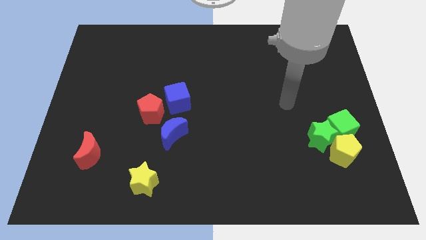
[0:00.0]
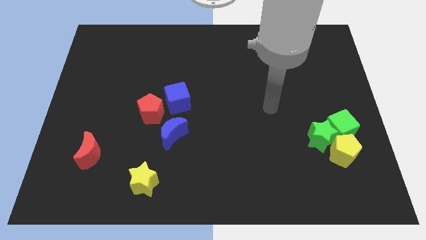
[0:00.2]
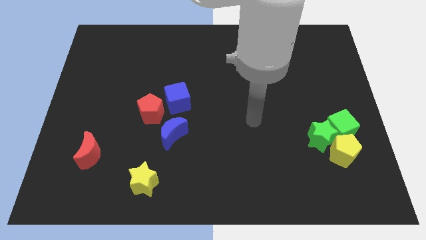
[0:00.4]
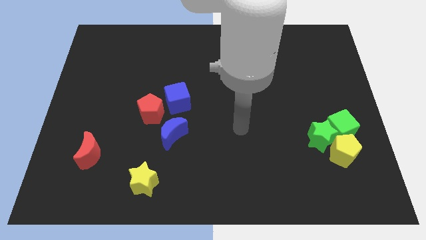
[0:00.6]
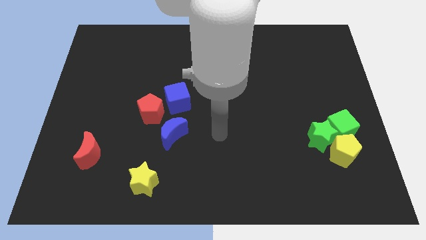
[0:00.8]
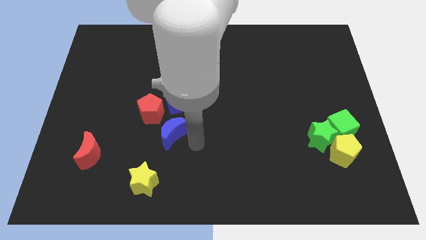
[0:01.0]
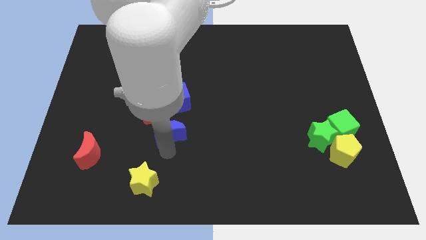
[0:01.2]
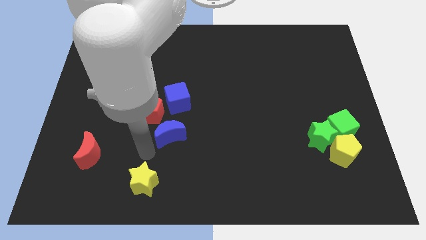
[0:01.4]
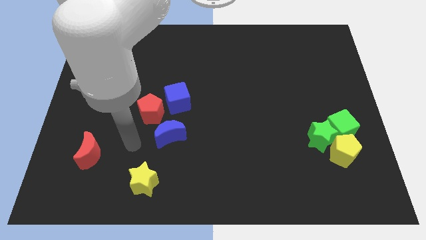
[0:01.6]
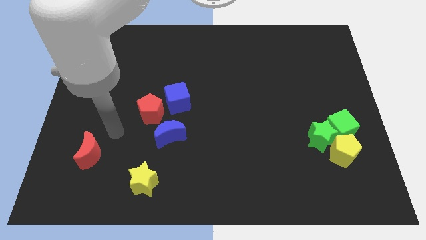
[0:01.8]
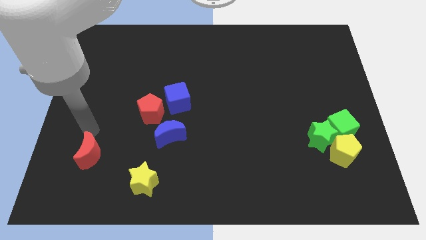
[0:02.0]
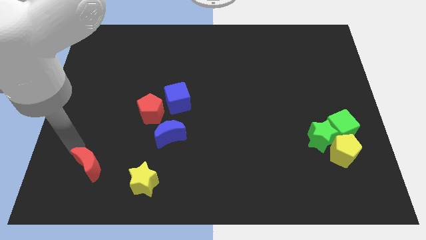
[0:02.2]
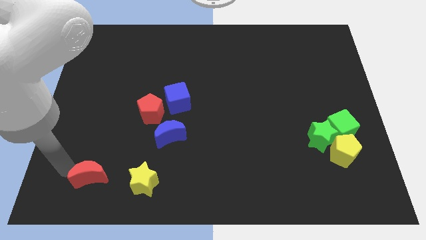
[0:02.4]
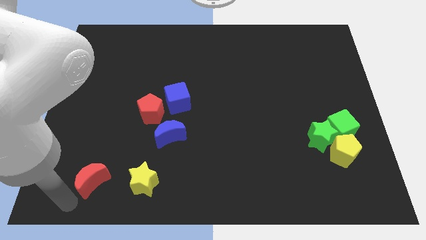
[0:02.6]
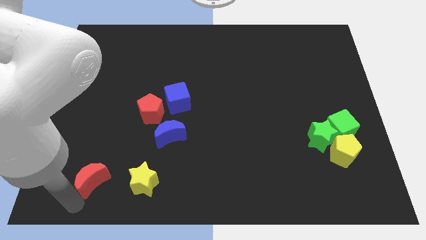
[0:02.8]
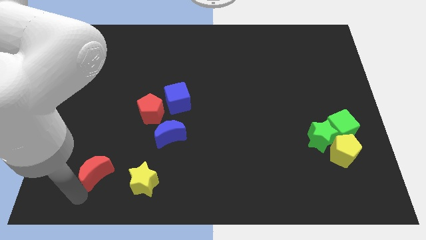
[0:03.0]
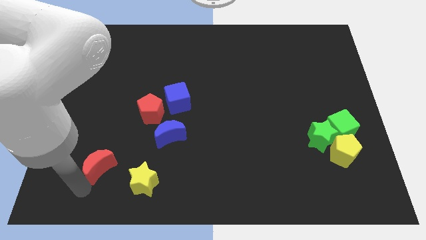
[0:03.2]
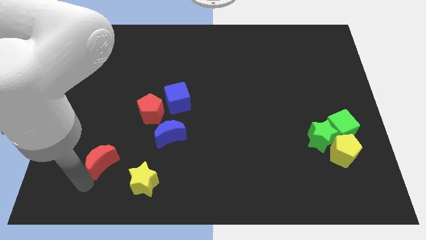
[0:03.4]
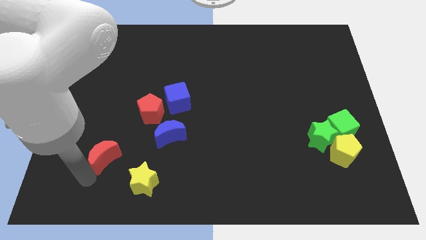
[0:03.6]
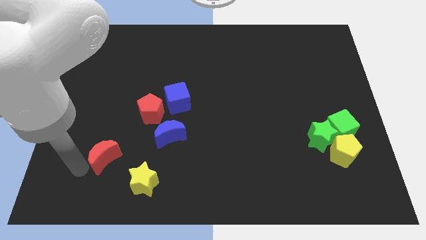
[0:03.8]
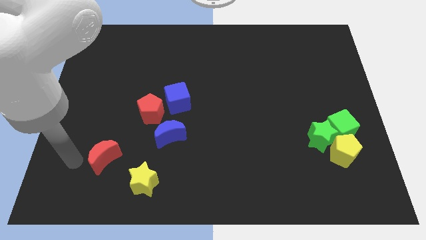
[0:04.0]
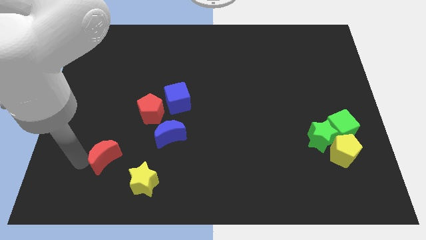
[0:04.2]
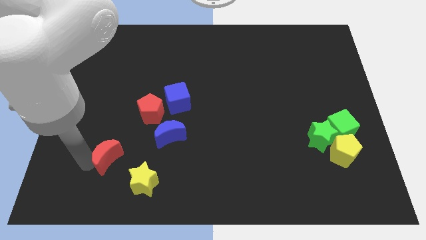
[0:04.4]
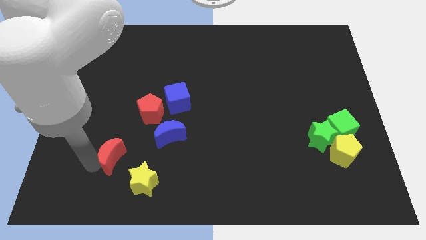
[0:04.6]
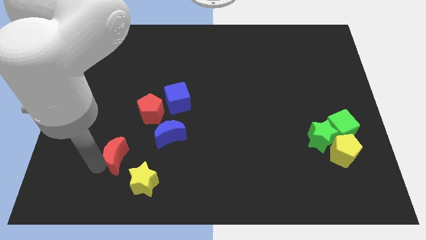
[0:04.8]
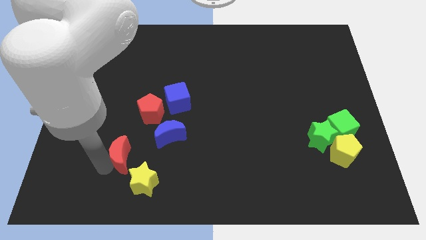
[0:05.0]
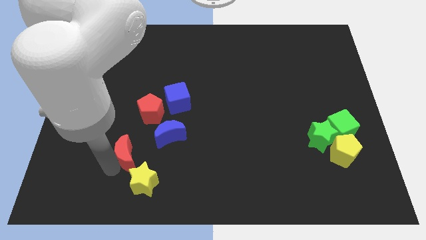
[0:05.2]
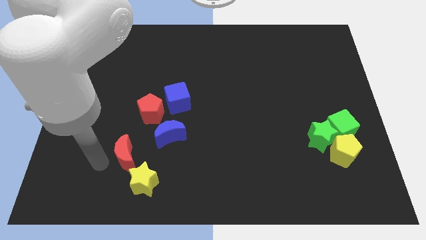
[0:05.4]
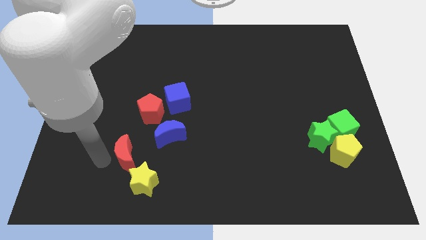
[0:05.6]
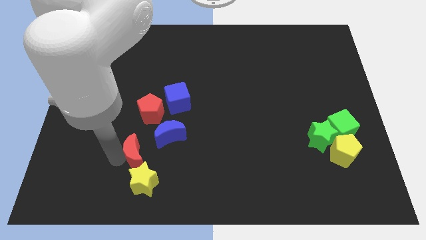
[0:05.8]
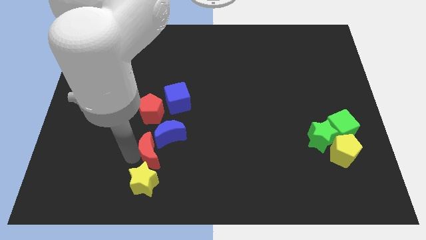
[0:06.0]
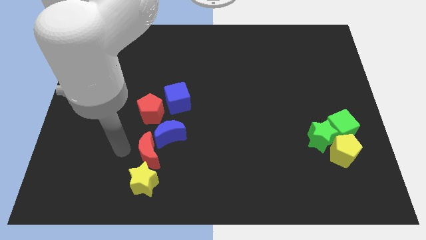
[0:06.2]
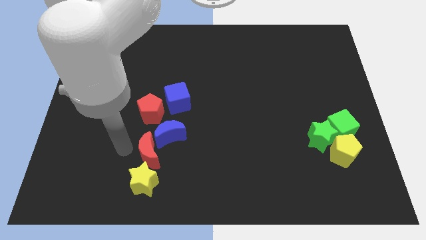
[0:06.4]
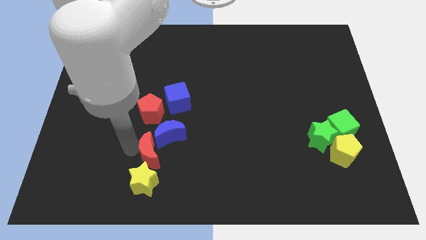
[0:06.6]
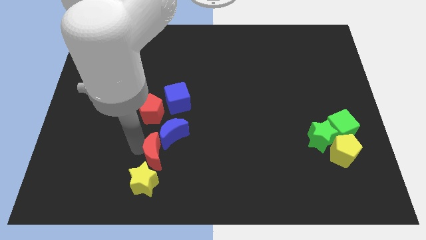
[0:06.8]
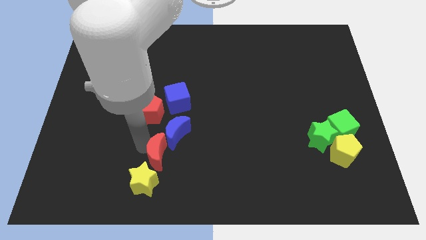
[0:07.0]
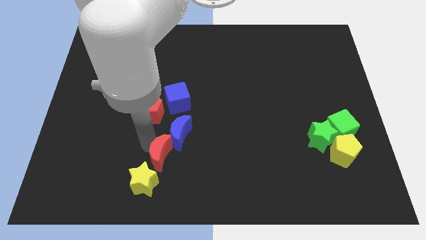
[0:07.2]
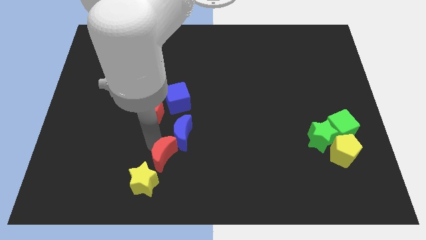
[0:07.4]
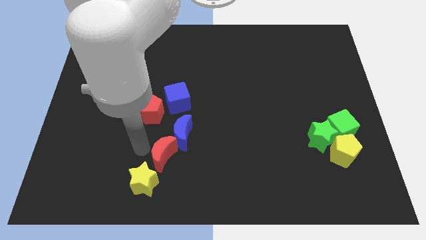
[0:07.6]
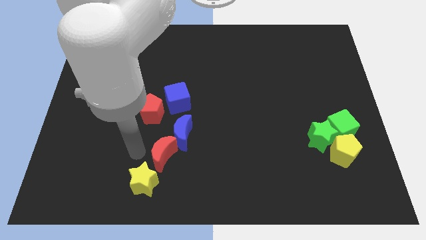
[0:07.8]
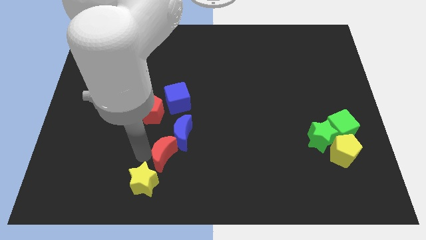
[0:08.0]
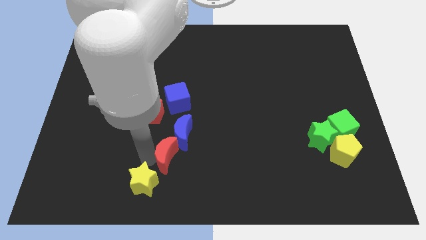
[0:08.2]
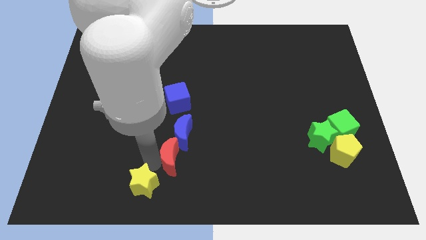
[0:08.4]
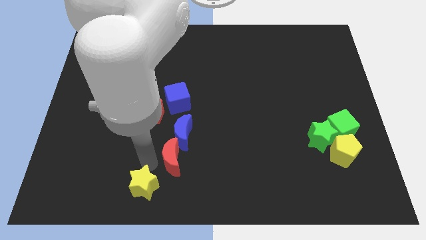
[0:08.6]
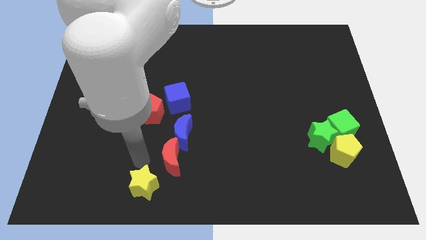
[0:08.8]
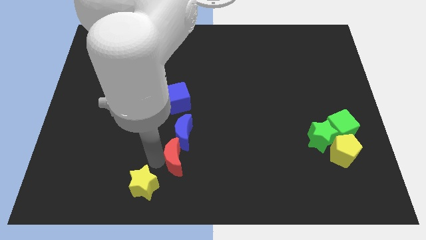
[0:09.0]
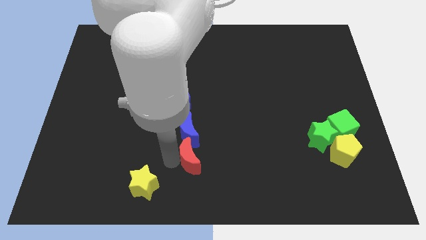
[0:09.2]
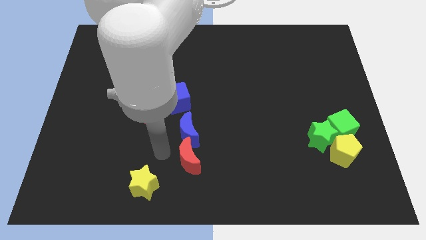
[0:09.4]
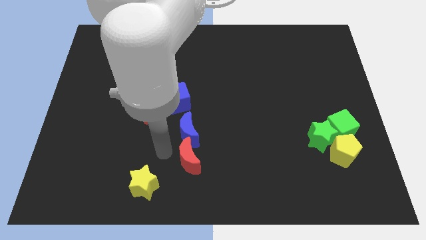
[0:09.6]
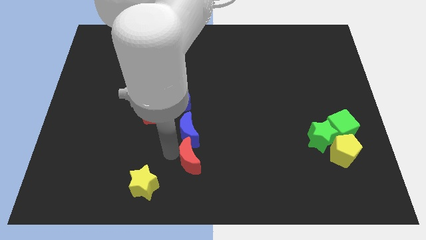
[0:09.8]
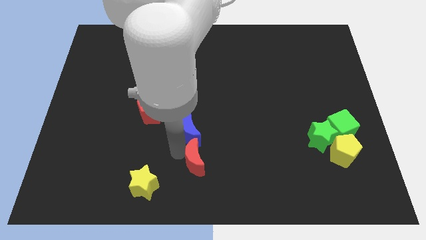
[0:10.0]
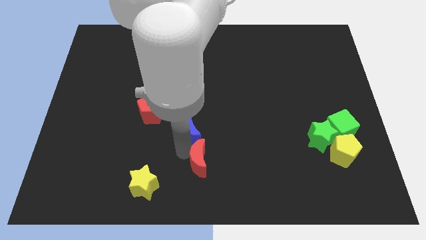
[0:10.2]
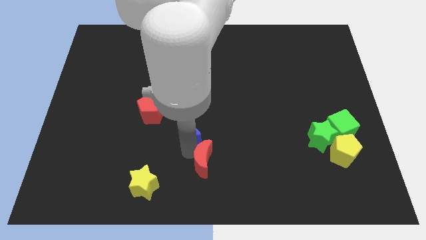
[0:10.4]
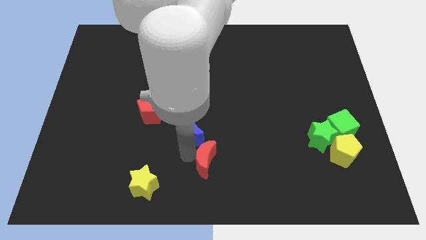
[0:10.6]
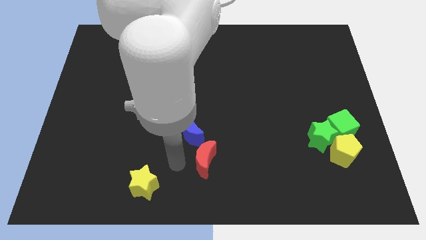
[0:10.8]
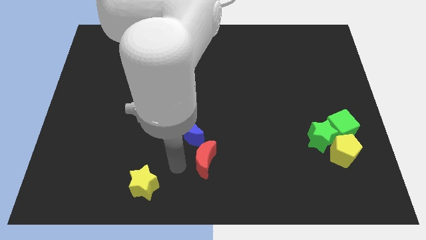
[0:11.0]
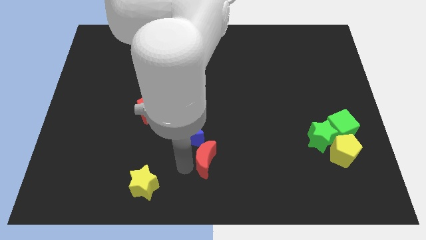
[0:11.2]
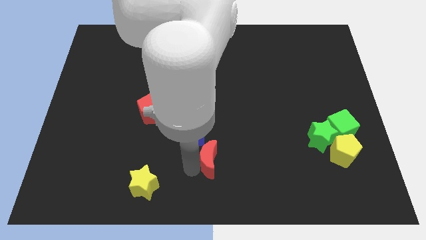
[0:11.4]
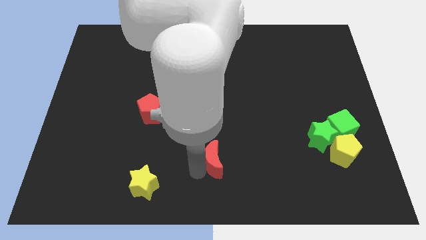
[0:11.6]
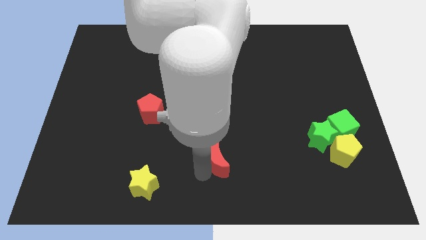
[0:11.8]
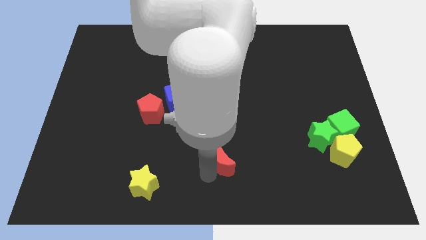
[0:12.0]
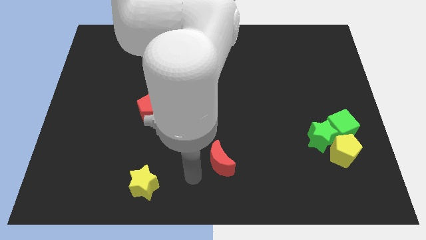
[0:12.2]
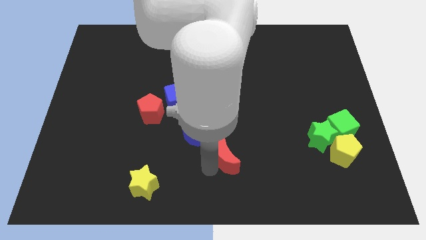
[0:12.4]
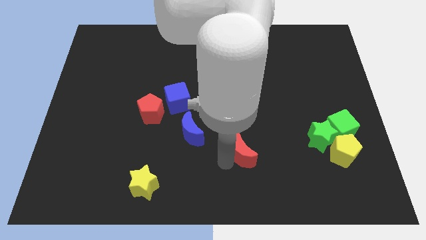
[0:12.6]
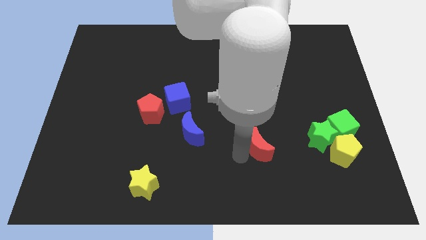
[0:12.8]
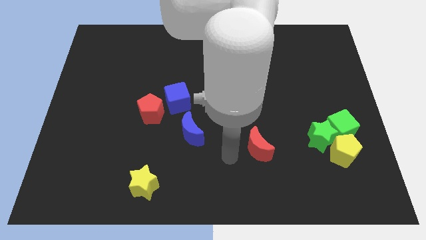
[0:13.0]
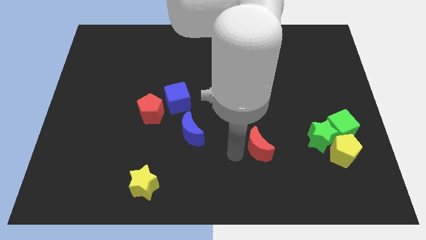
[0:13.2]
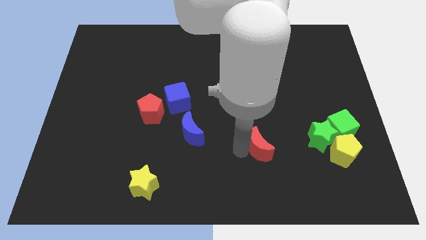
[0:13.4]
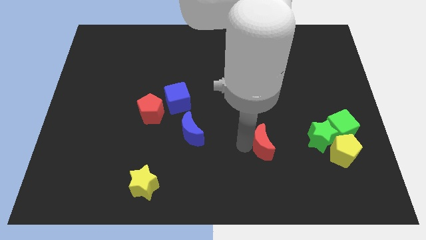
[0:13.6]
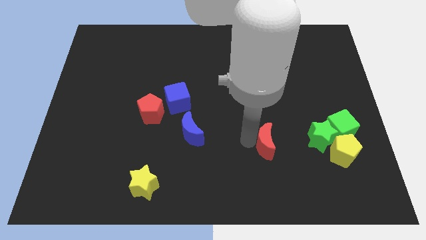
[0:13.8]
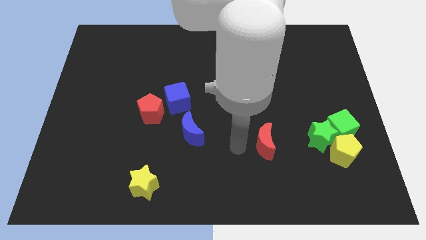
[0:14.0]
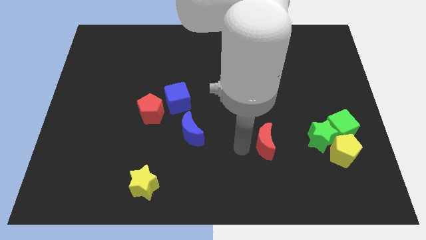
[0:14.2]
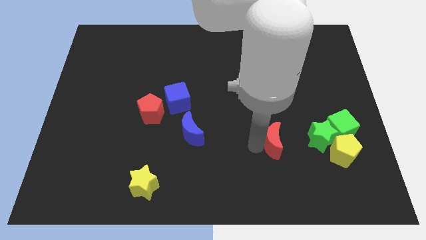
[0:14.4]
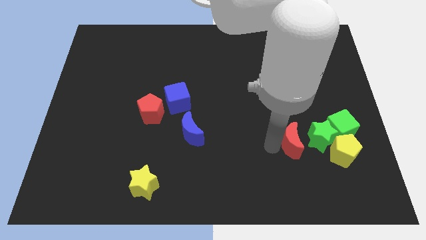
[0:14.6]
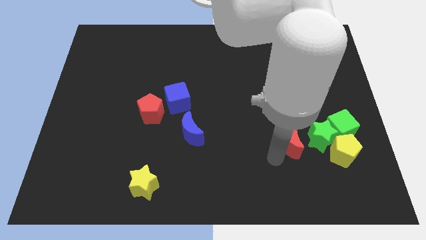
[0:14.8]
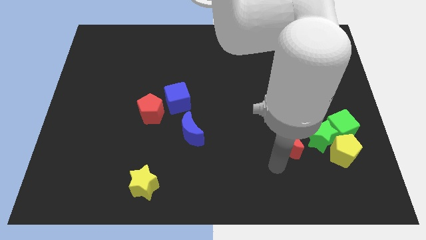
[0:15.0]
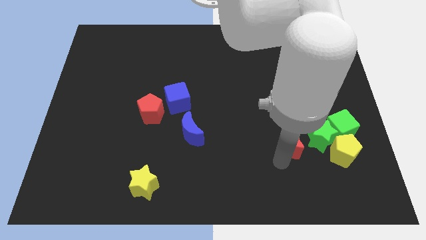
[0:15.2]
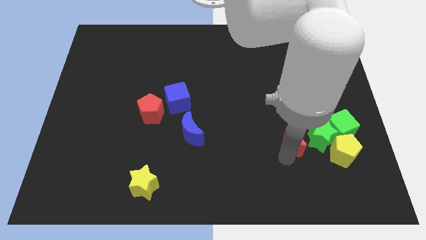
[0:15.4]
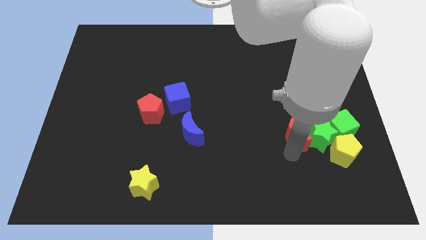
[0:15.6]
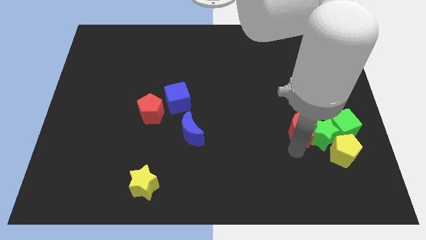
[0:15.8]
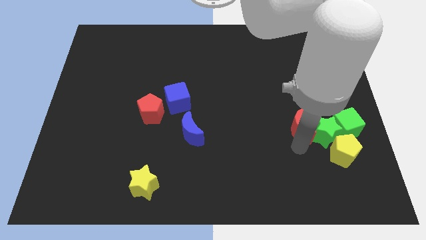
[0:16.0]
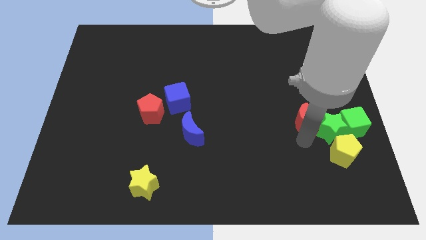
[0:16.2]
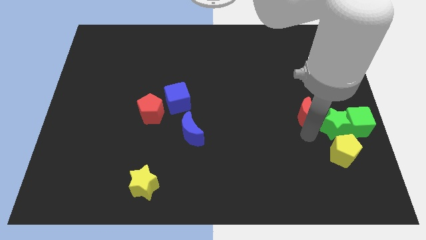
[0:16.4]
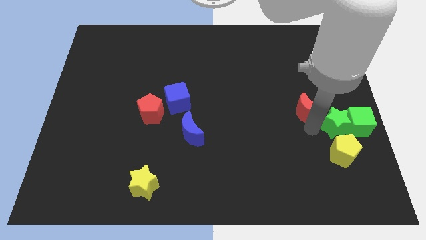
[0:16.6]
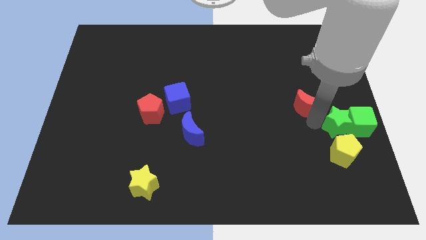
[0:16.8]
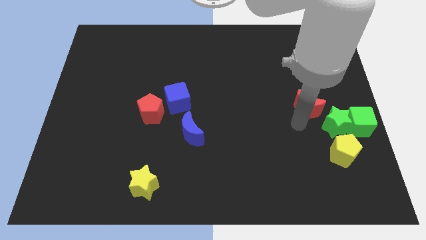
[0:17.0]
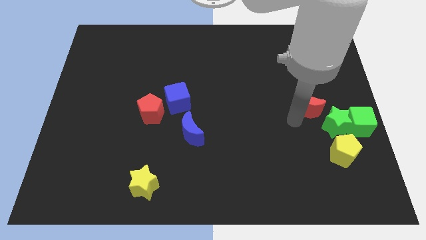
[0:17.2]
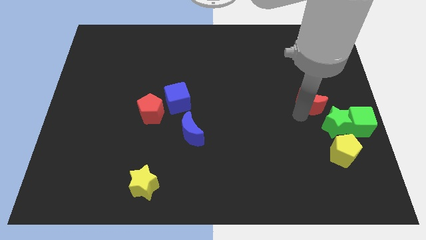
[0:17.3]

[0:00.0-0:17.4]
put the red moon above the green star
